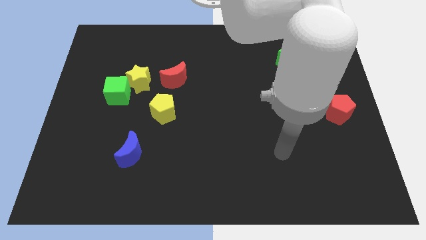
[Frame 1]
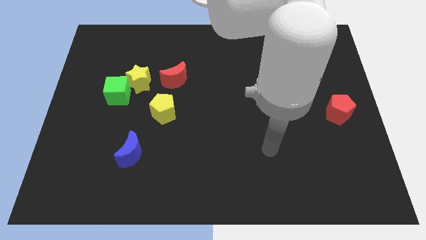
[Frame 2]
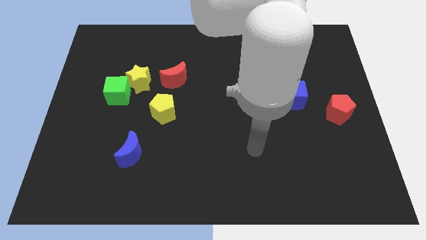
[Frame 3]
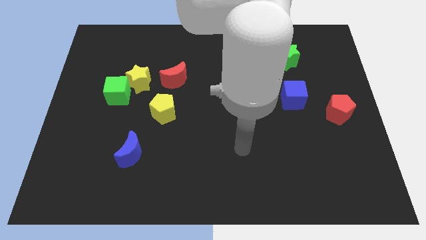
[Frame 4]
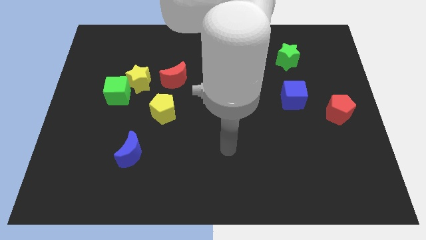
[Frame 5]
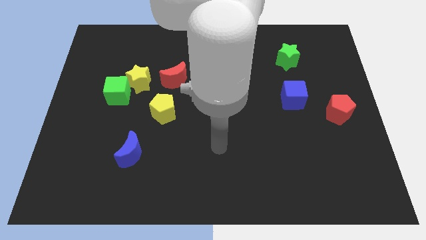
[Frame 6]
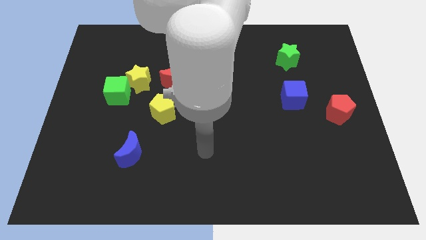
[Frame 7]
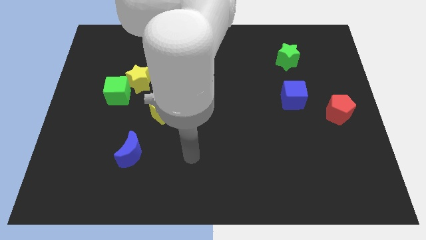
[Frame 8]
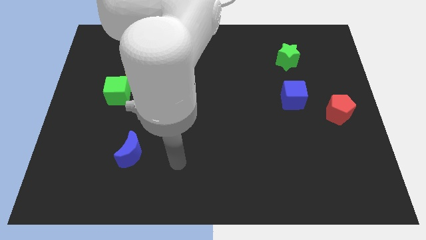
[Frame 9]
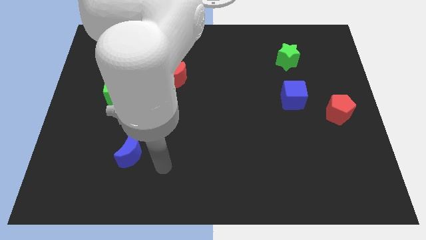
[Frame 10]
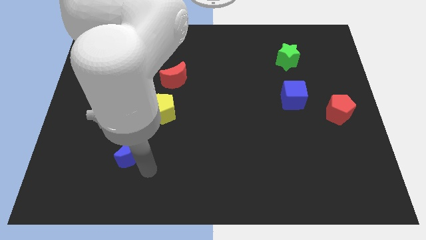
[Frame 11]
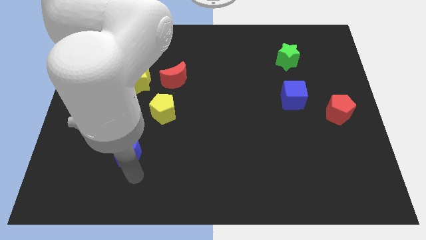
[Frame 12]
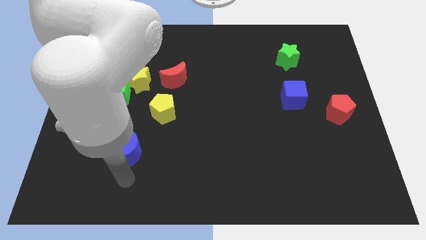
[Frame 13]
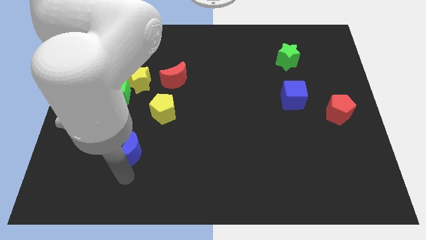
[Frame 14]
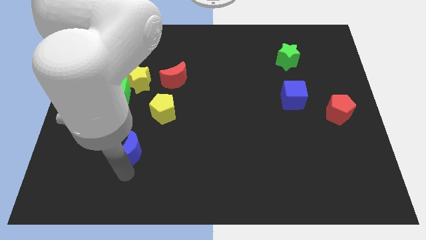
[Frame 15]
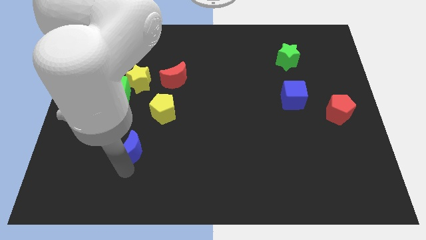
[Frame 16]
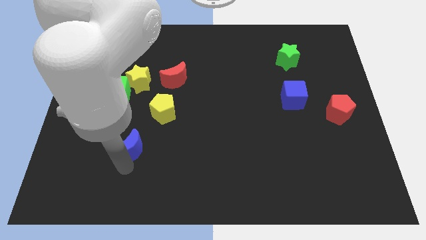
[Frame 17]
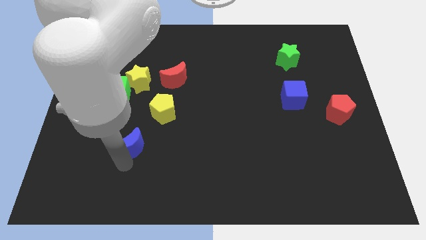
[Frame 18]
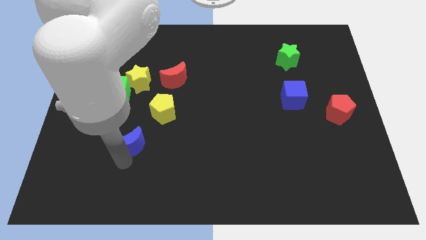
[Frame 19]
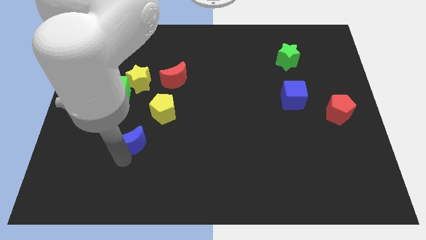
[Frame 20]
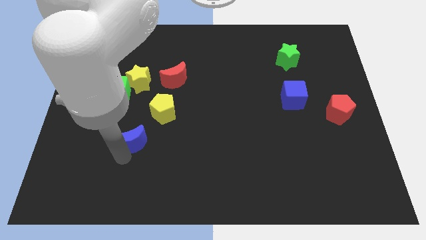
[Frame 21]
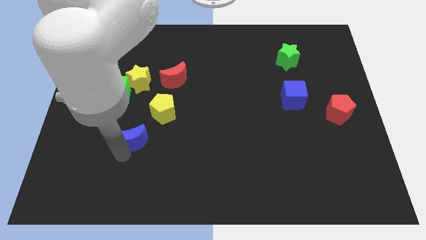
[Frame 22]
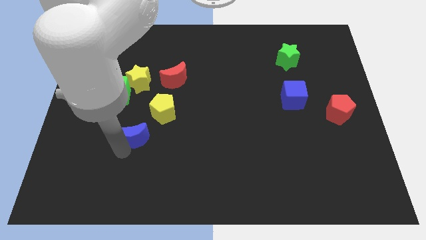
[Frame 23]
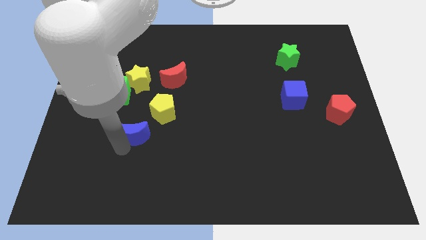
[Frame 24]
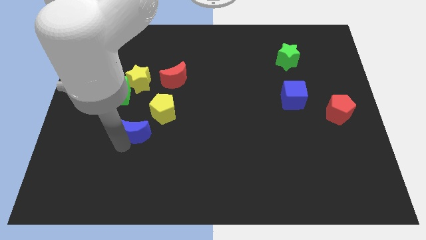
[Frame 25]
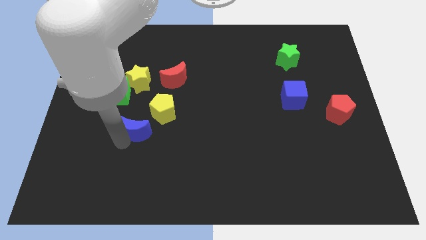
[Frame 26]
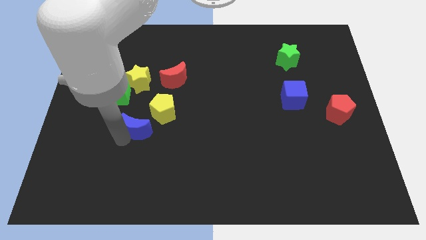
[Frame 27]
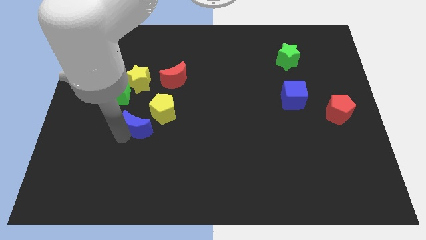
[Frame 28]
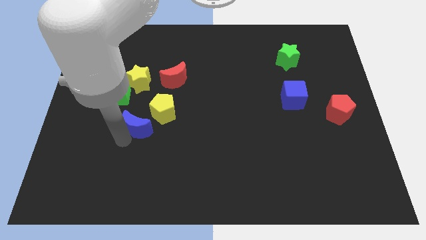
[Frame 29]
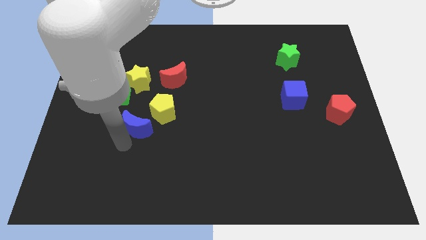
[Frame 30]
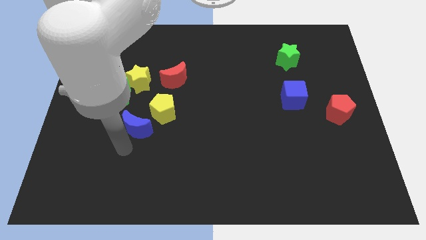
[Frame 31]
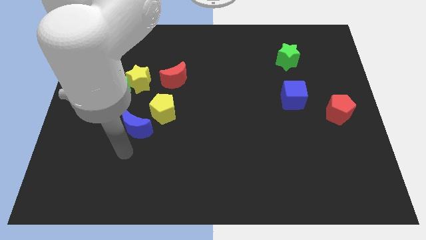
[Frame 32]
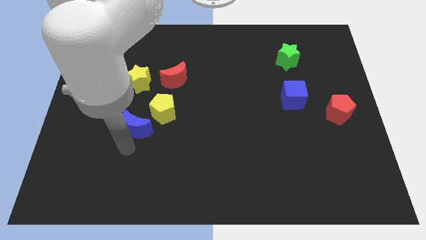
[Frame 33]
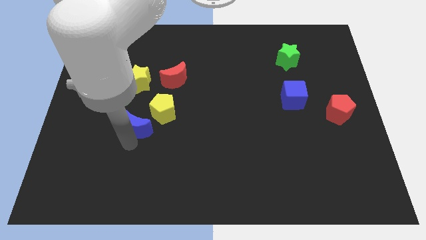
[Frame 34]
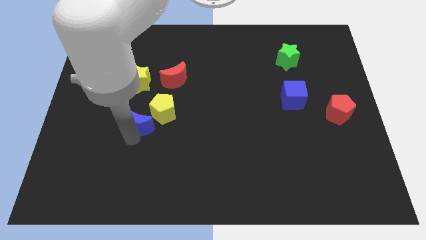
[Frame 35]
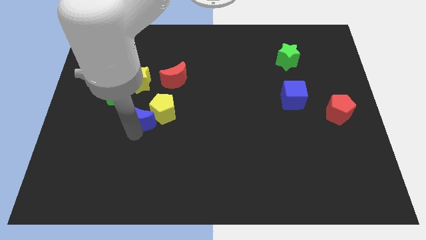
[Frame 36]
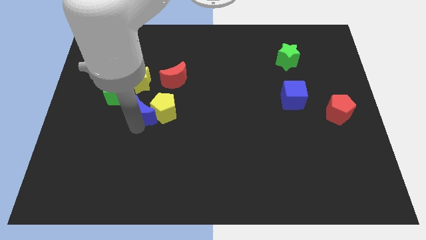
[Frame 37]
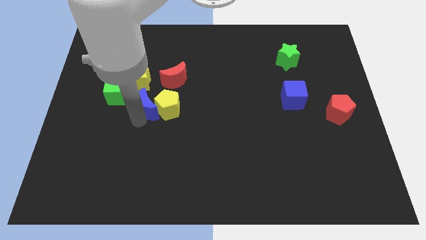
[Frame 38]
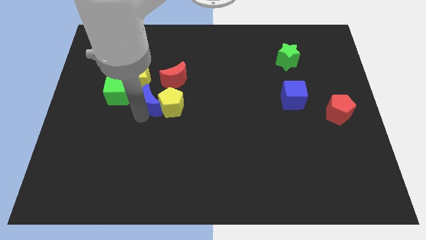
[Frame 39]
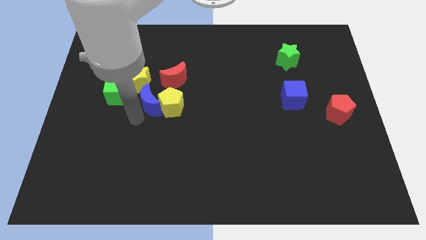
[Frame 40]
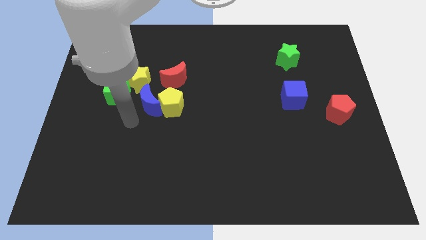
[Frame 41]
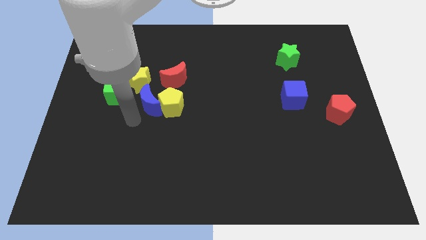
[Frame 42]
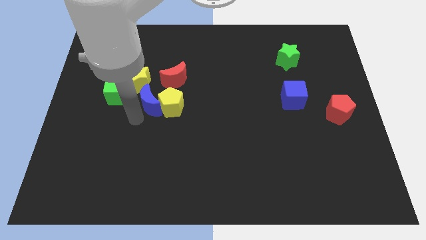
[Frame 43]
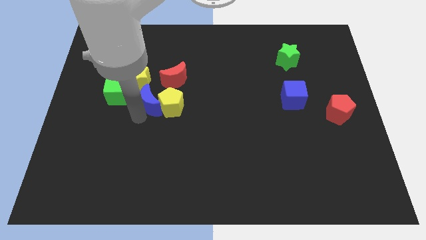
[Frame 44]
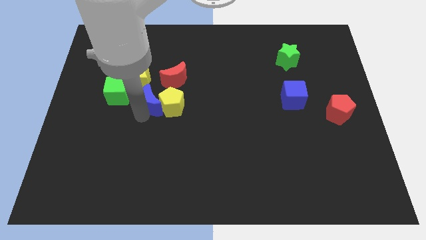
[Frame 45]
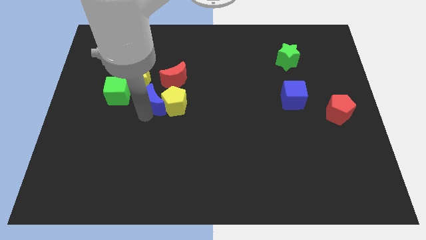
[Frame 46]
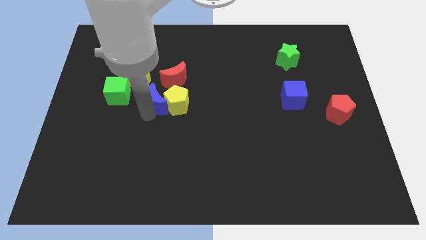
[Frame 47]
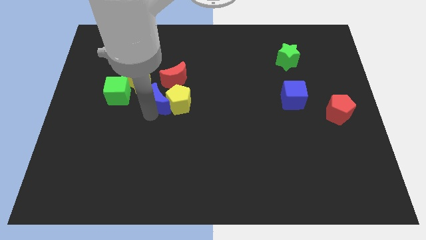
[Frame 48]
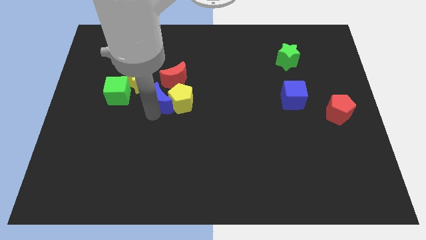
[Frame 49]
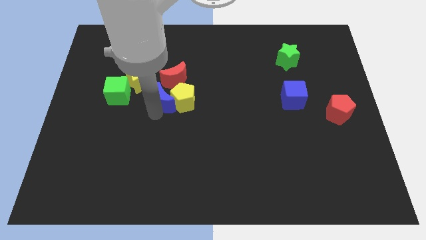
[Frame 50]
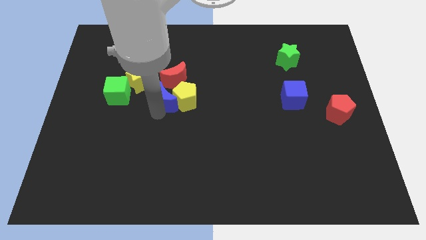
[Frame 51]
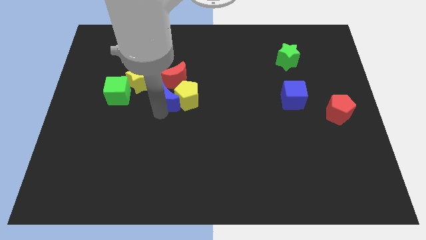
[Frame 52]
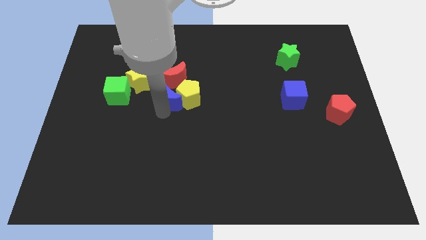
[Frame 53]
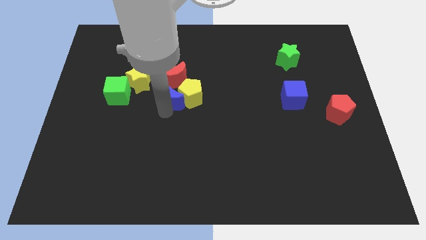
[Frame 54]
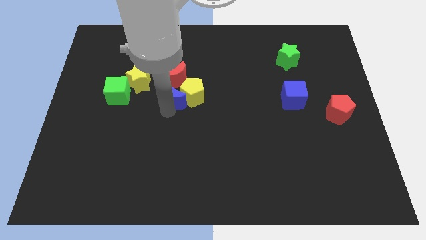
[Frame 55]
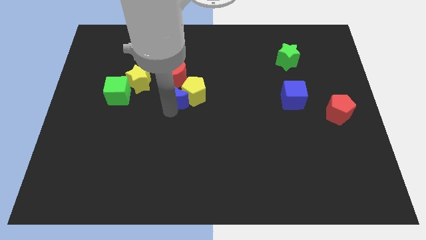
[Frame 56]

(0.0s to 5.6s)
slide the blue moon close to the red moon

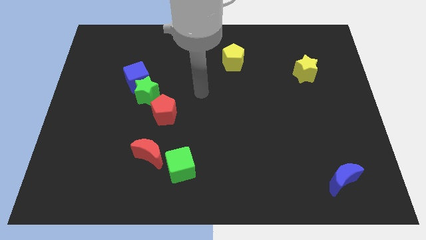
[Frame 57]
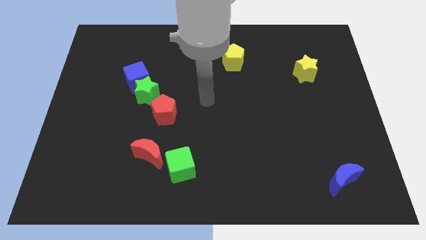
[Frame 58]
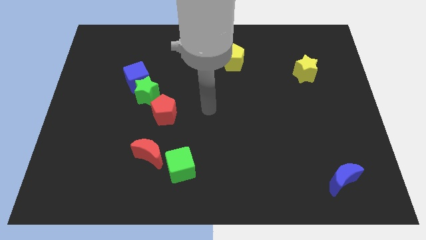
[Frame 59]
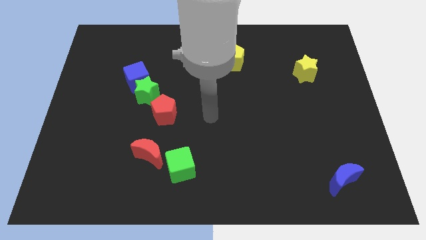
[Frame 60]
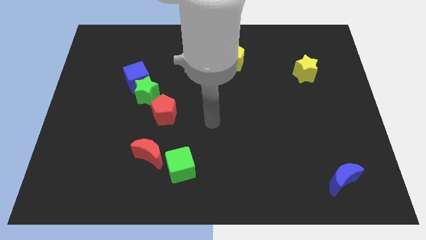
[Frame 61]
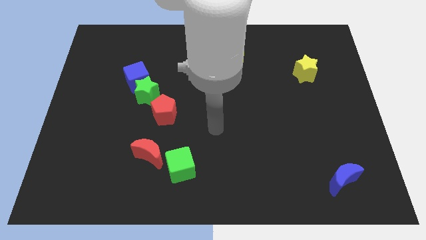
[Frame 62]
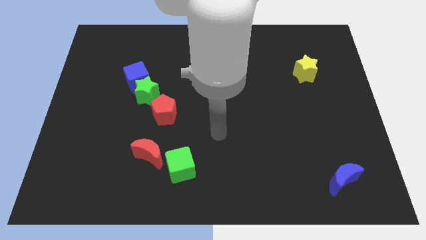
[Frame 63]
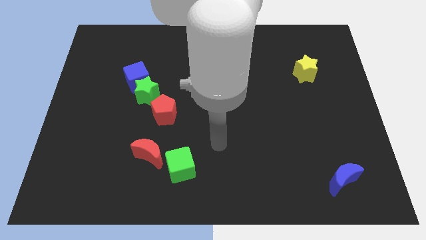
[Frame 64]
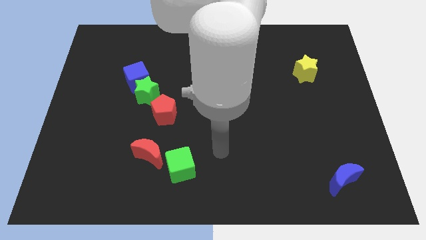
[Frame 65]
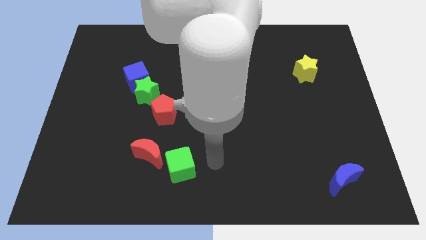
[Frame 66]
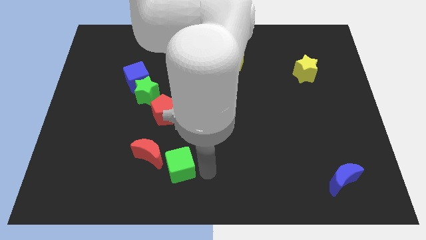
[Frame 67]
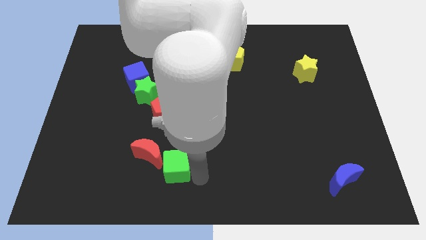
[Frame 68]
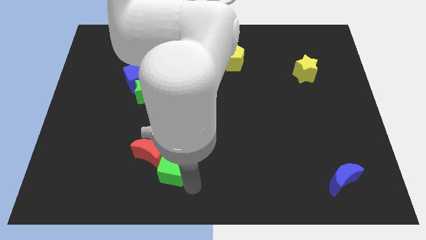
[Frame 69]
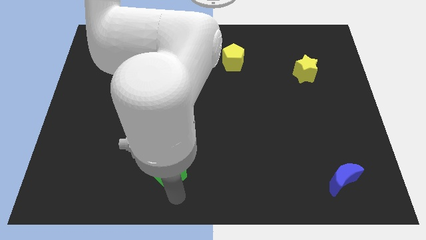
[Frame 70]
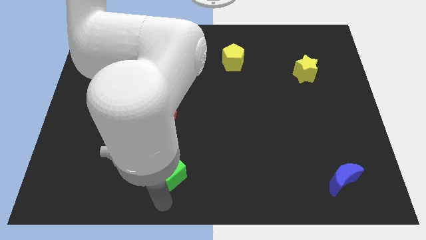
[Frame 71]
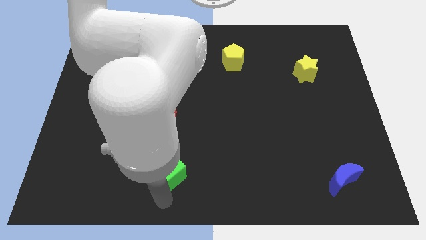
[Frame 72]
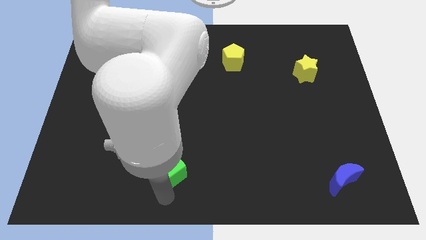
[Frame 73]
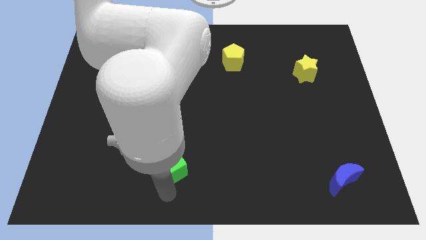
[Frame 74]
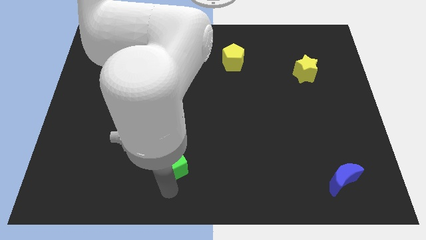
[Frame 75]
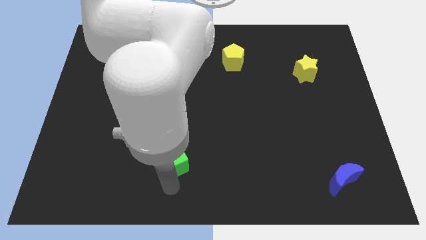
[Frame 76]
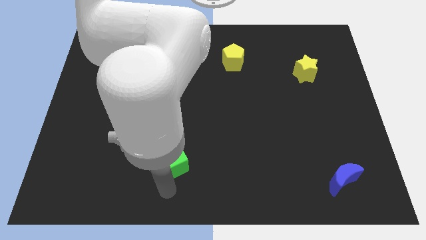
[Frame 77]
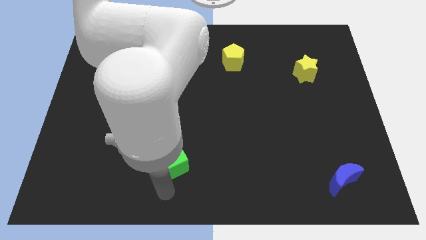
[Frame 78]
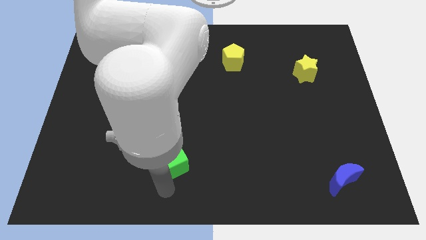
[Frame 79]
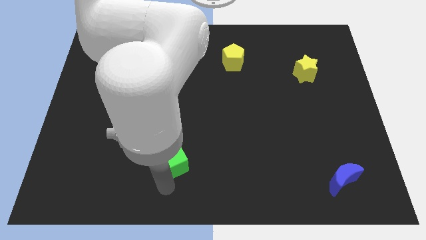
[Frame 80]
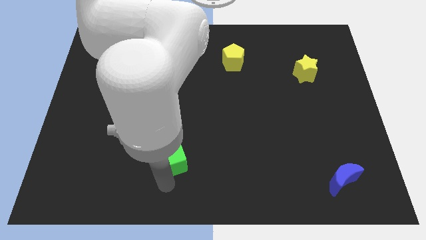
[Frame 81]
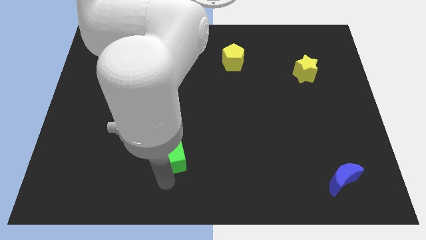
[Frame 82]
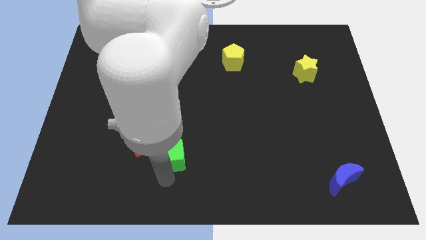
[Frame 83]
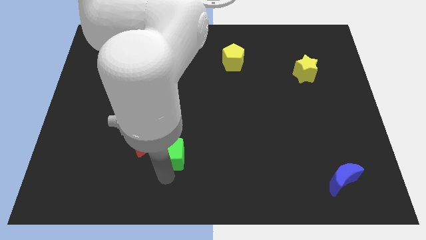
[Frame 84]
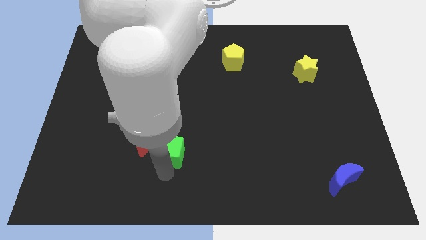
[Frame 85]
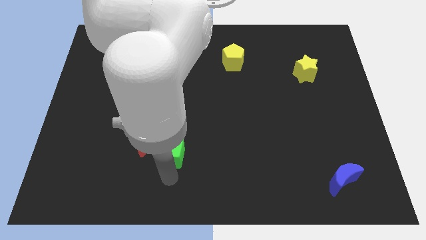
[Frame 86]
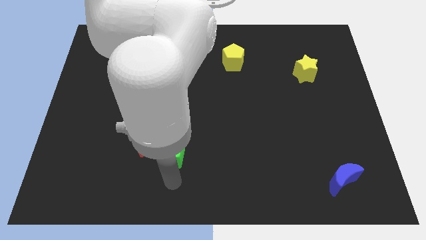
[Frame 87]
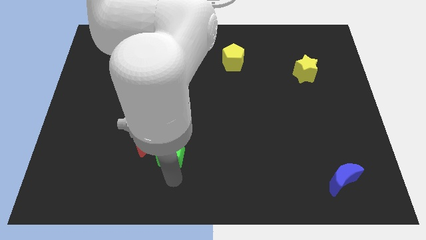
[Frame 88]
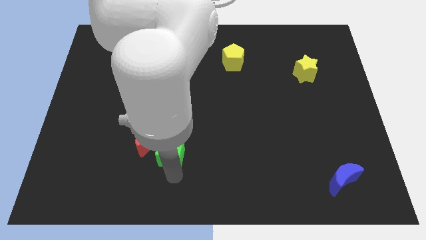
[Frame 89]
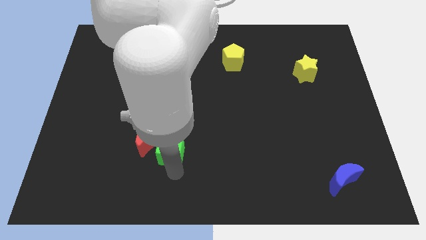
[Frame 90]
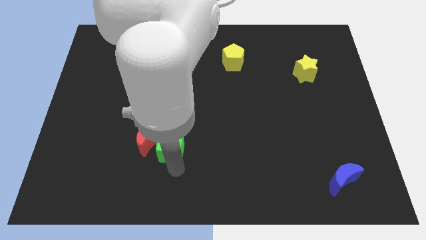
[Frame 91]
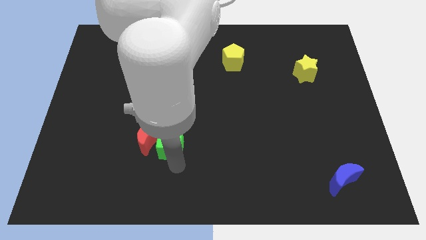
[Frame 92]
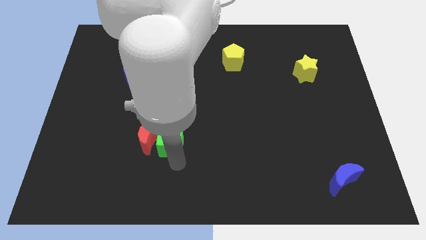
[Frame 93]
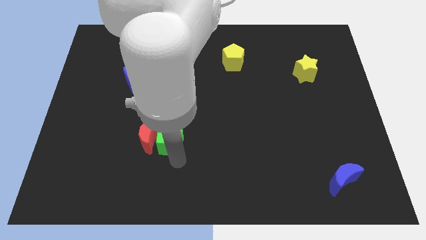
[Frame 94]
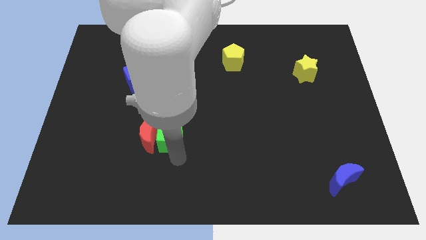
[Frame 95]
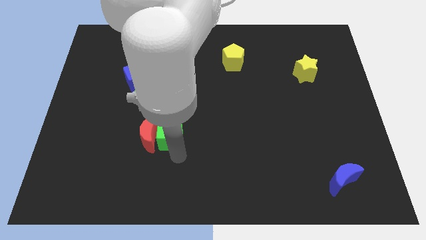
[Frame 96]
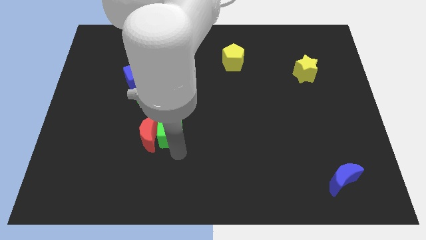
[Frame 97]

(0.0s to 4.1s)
move the green cube close to the red pentagon
